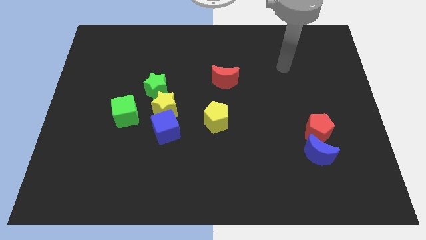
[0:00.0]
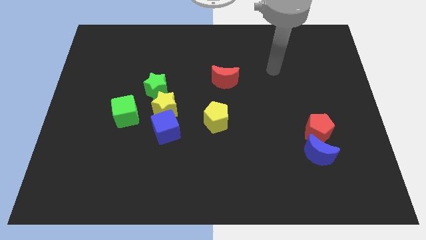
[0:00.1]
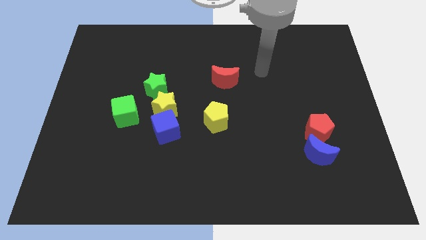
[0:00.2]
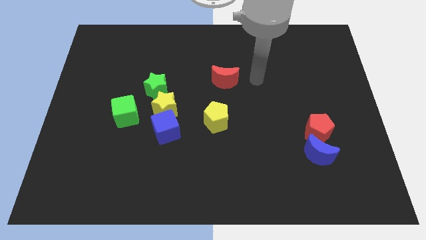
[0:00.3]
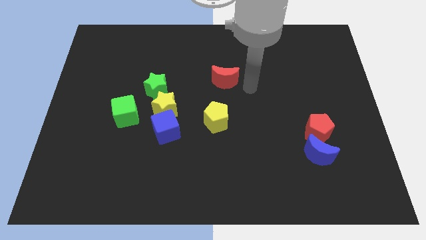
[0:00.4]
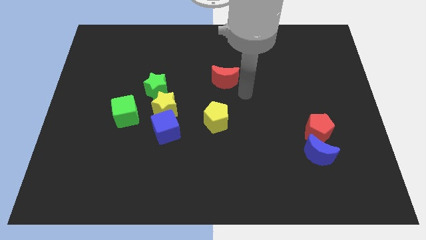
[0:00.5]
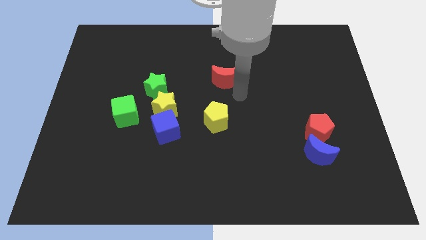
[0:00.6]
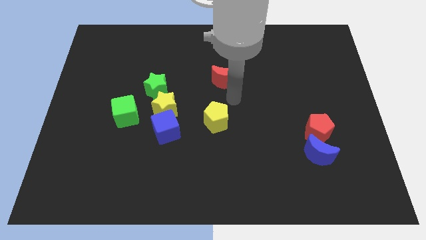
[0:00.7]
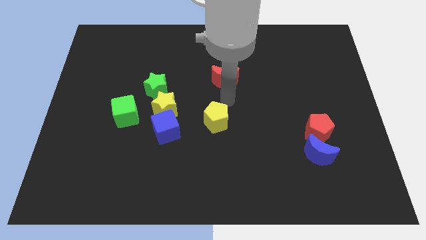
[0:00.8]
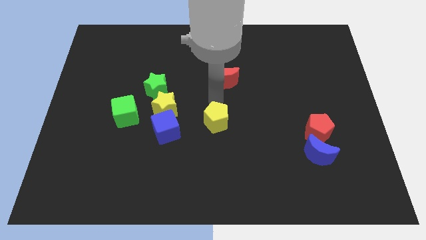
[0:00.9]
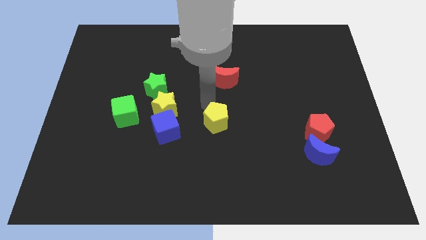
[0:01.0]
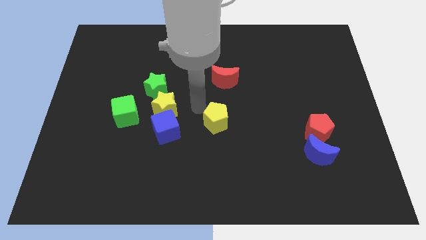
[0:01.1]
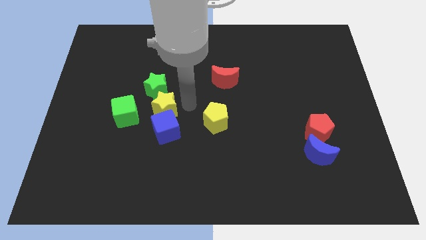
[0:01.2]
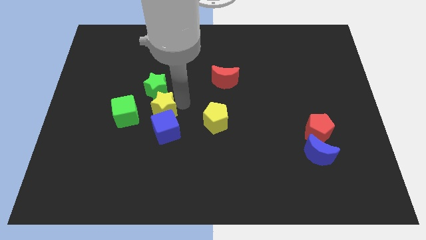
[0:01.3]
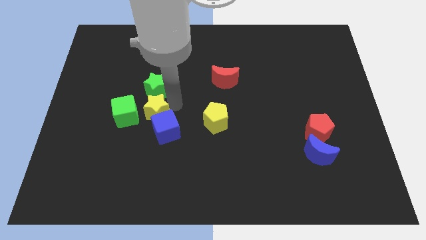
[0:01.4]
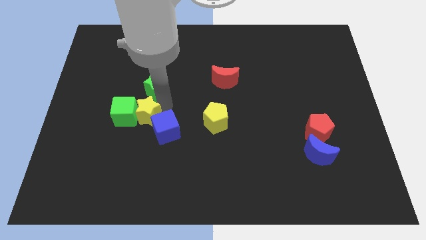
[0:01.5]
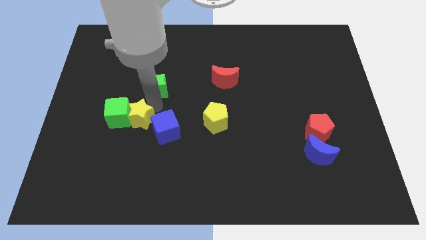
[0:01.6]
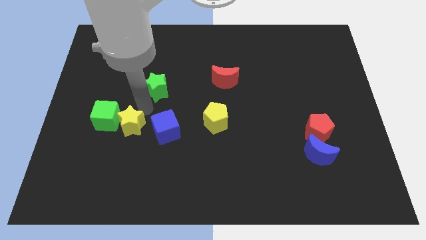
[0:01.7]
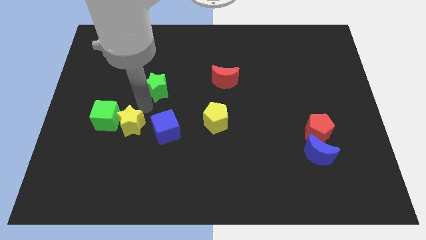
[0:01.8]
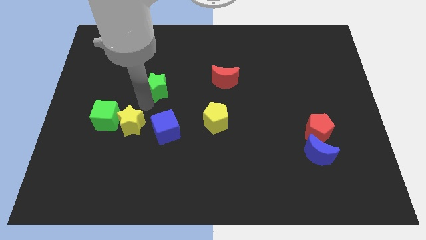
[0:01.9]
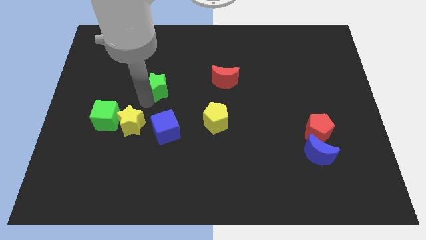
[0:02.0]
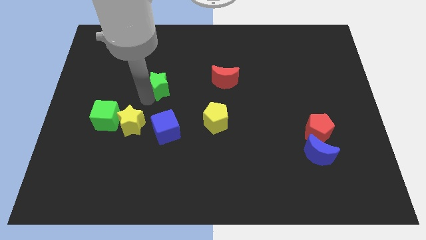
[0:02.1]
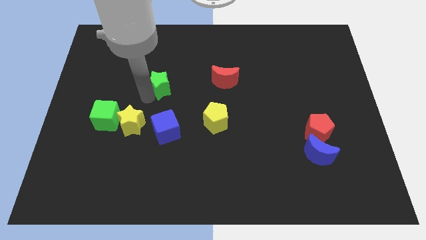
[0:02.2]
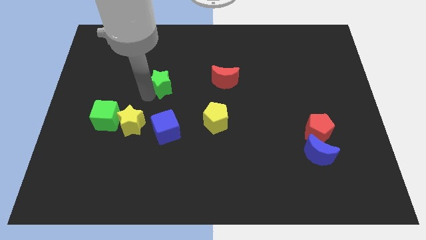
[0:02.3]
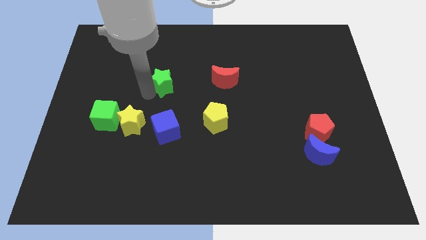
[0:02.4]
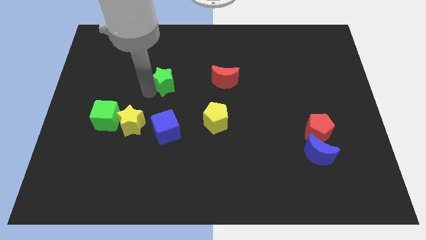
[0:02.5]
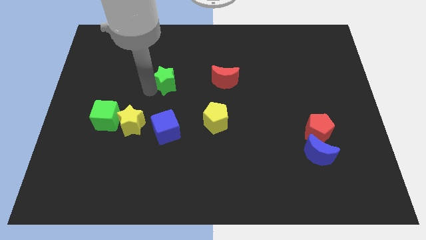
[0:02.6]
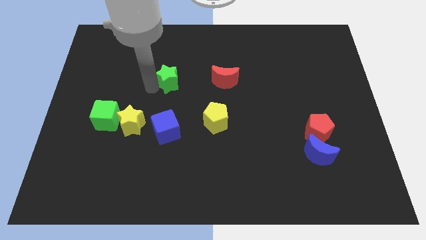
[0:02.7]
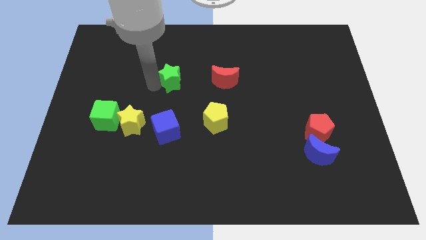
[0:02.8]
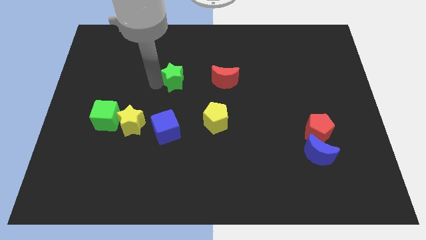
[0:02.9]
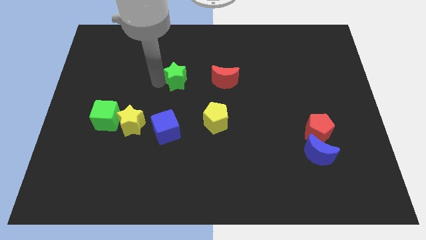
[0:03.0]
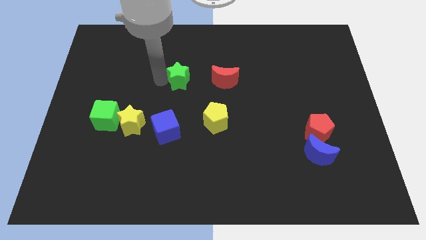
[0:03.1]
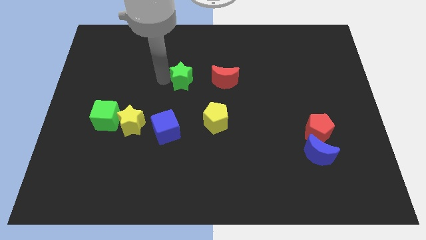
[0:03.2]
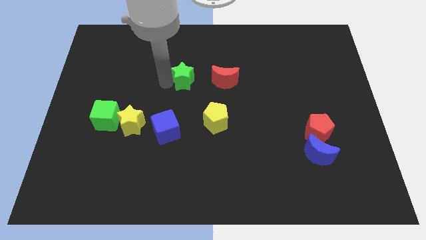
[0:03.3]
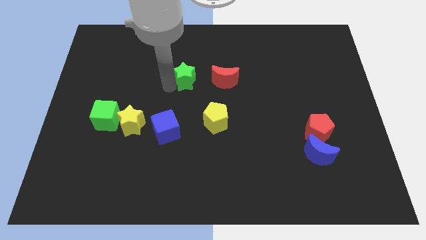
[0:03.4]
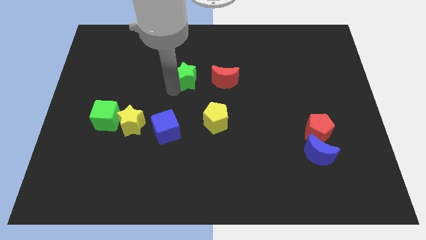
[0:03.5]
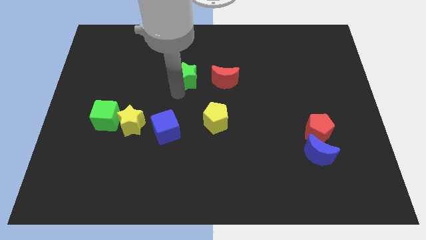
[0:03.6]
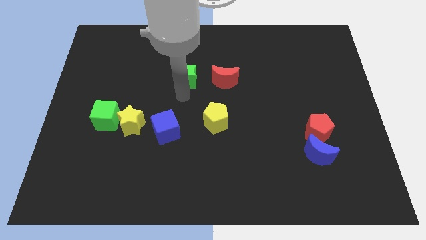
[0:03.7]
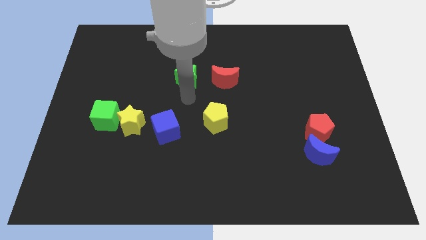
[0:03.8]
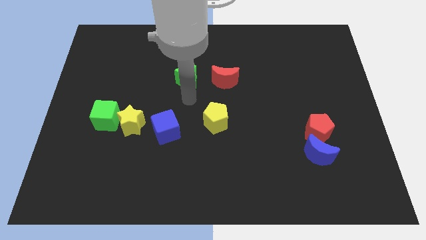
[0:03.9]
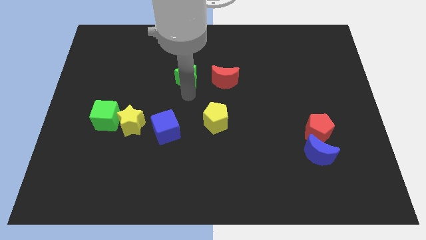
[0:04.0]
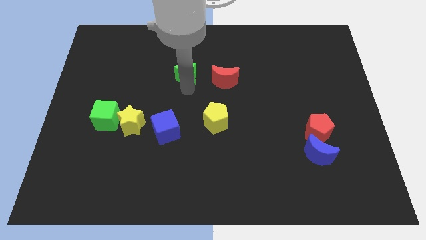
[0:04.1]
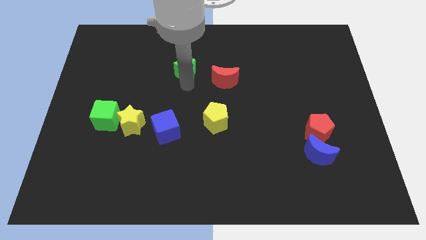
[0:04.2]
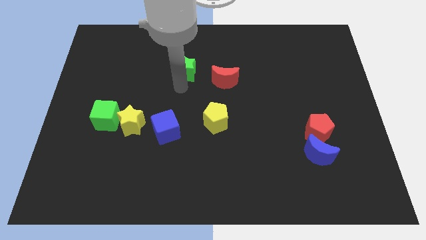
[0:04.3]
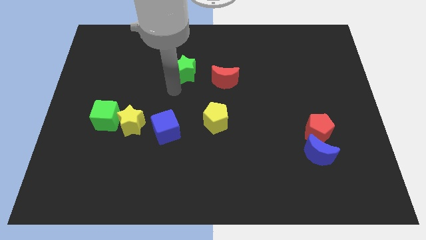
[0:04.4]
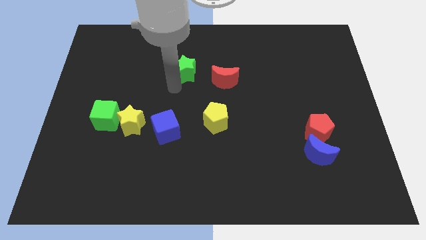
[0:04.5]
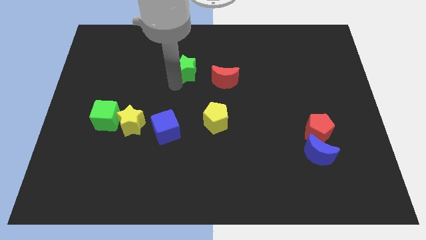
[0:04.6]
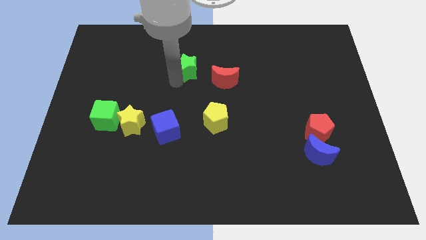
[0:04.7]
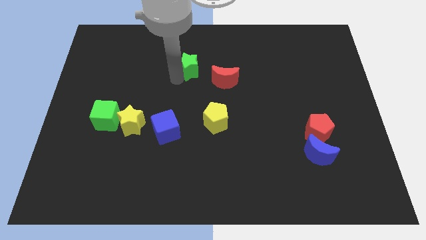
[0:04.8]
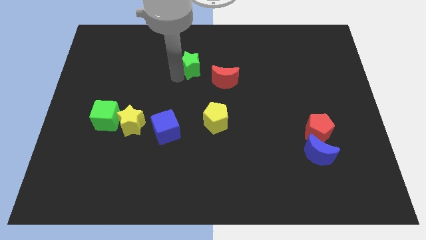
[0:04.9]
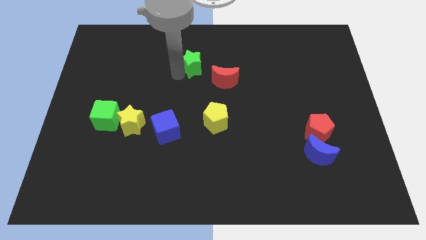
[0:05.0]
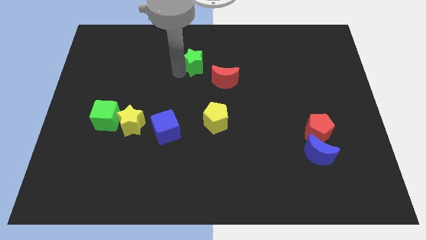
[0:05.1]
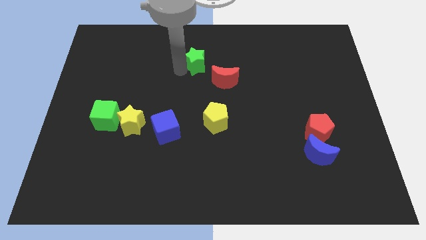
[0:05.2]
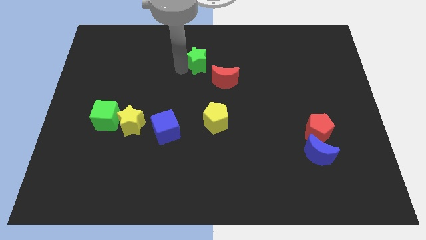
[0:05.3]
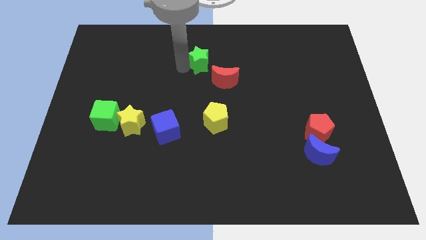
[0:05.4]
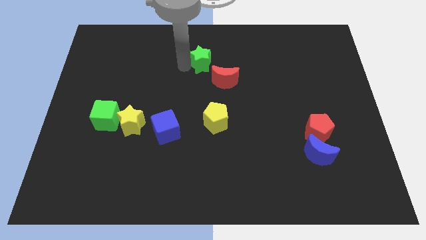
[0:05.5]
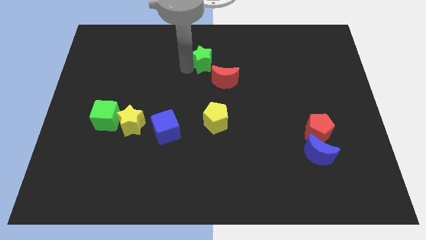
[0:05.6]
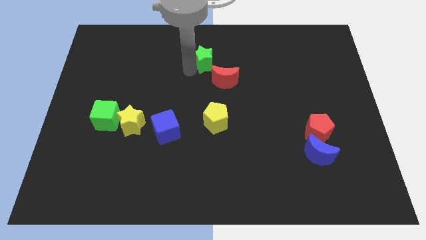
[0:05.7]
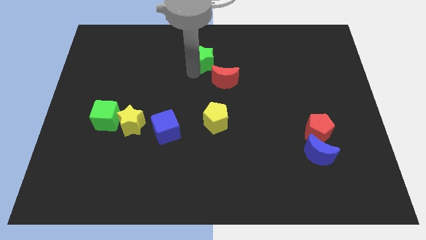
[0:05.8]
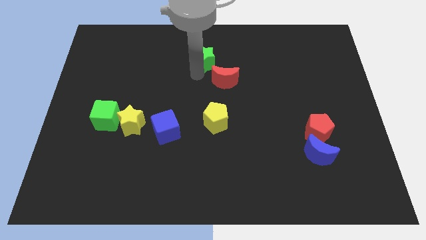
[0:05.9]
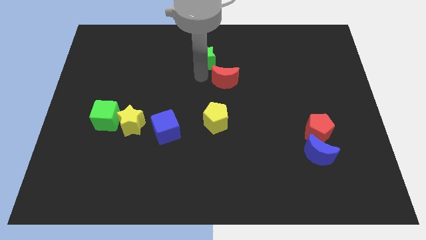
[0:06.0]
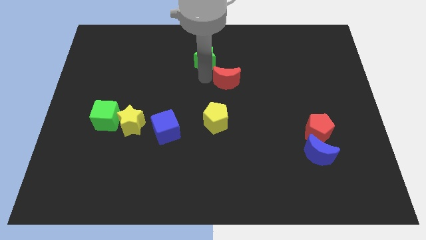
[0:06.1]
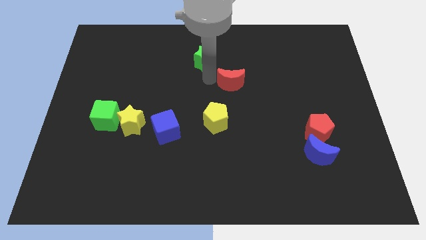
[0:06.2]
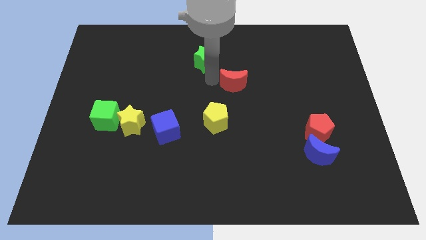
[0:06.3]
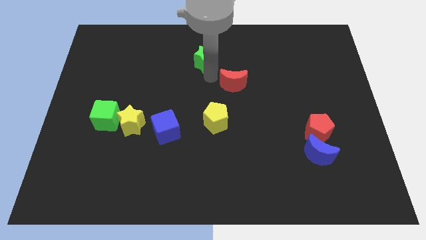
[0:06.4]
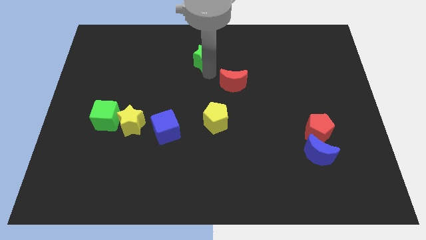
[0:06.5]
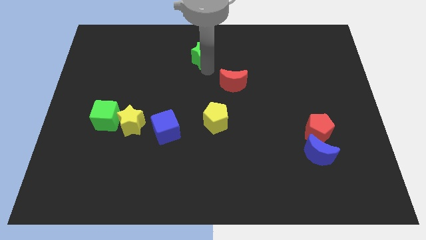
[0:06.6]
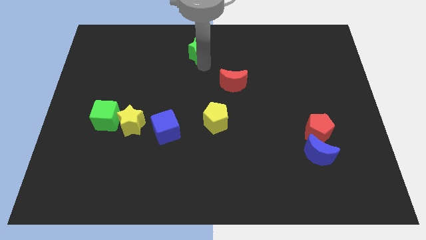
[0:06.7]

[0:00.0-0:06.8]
slide the green star to the top side
